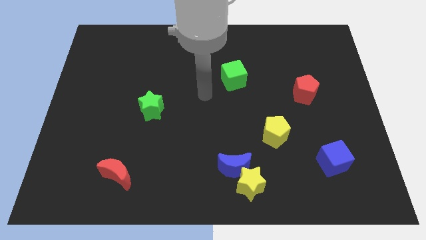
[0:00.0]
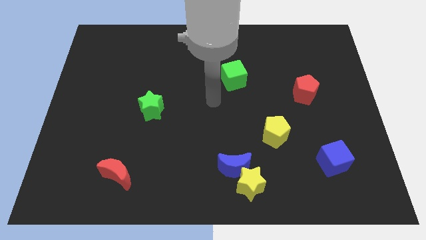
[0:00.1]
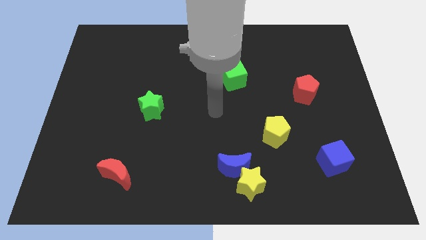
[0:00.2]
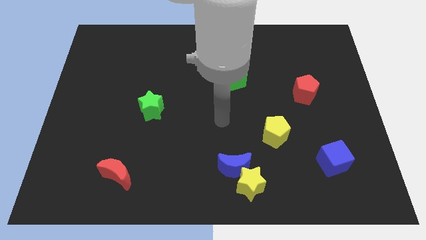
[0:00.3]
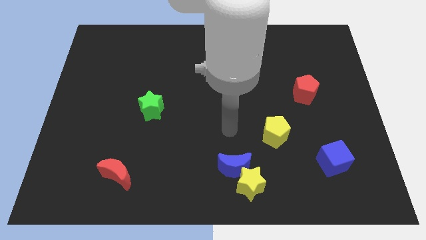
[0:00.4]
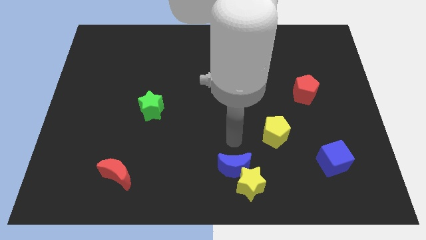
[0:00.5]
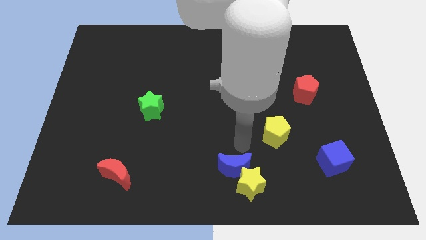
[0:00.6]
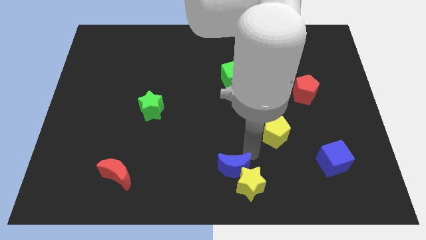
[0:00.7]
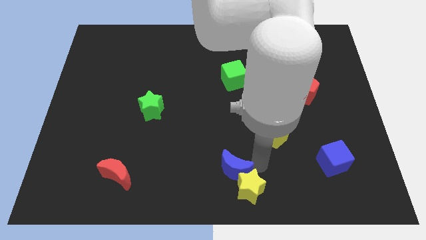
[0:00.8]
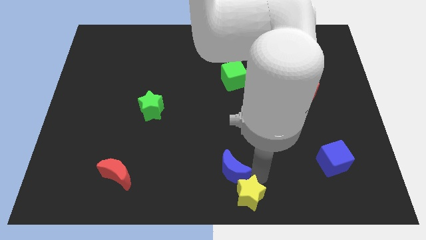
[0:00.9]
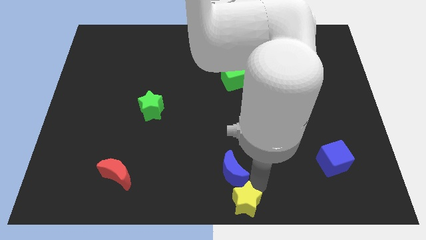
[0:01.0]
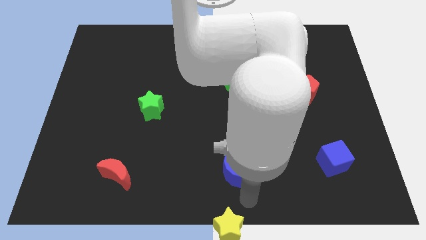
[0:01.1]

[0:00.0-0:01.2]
separate the blue moon from the yellow star

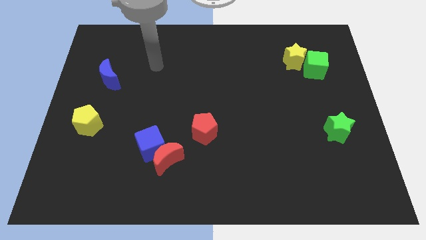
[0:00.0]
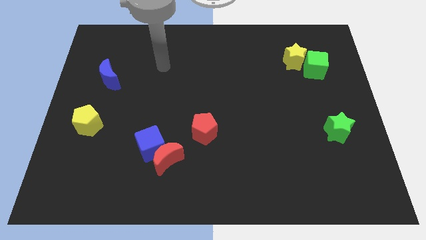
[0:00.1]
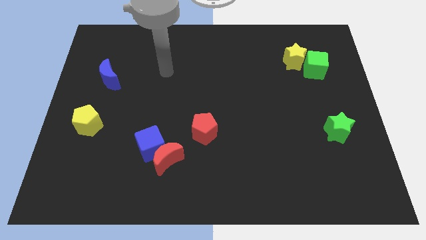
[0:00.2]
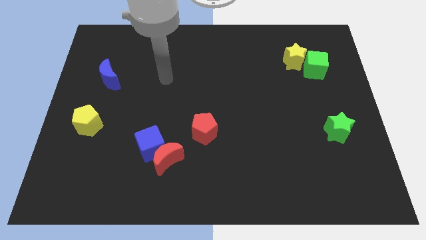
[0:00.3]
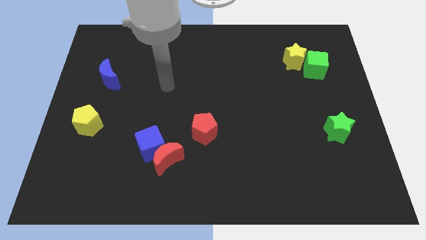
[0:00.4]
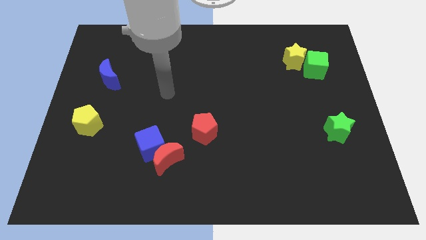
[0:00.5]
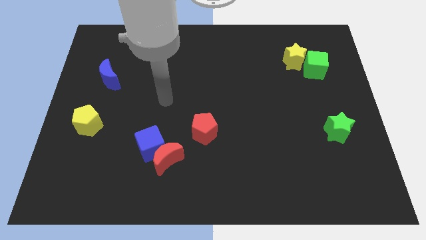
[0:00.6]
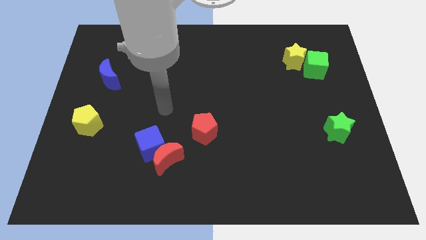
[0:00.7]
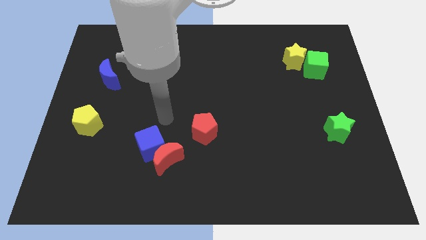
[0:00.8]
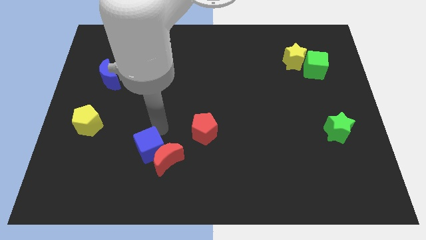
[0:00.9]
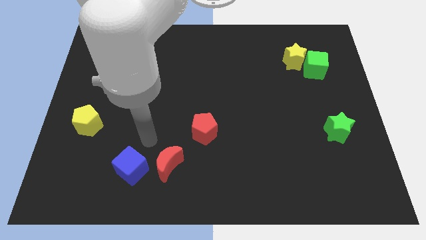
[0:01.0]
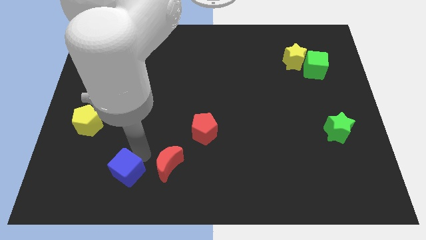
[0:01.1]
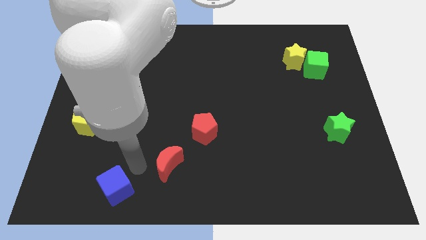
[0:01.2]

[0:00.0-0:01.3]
pull the red moon apart from the blue cube

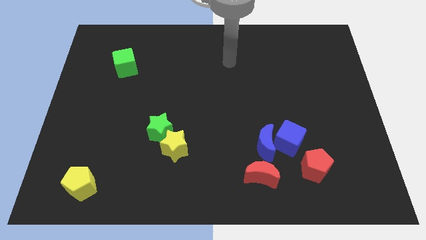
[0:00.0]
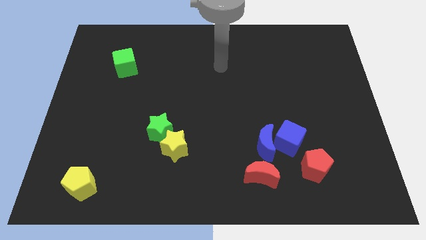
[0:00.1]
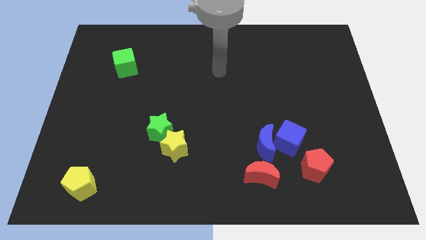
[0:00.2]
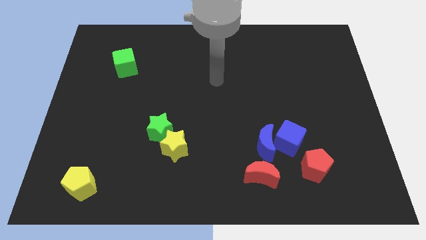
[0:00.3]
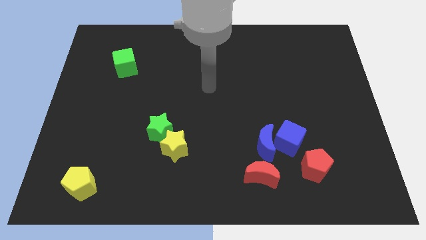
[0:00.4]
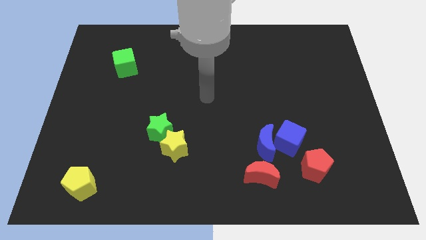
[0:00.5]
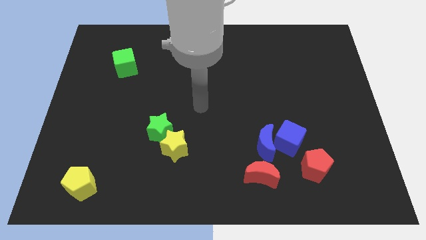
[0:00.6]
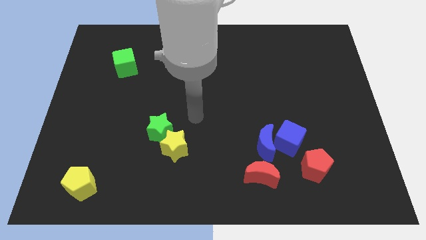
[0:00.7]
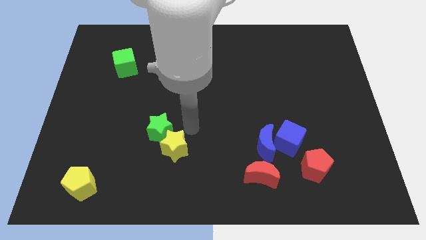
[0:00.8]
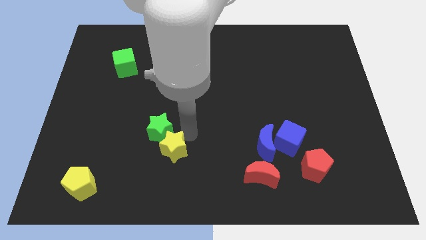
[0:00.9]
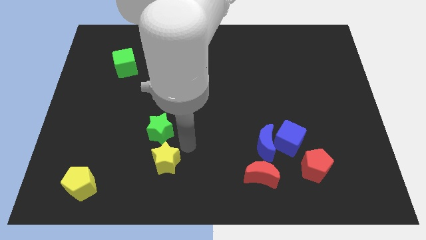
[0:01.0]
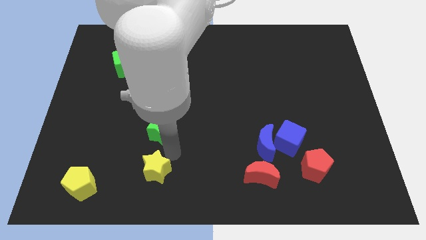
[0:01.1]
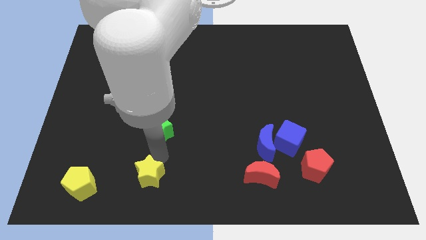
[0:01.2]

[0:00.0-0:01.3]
pull the green star apart from the yellow star

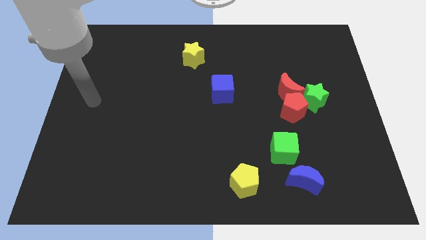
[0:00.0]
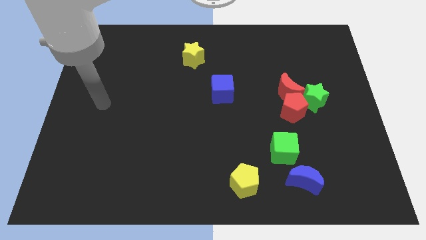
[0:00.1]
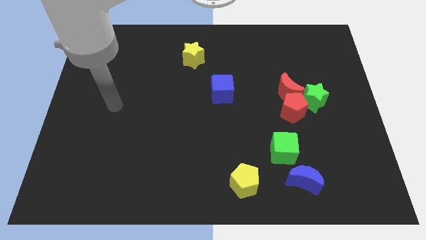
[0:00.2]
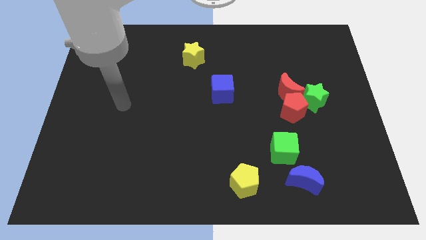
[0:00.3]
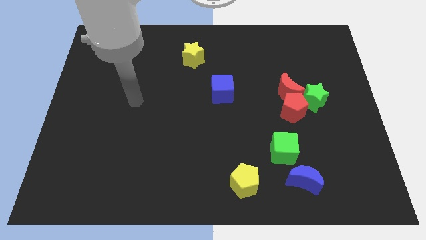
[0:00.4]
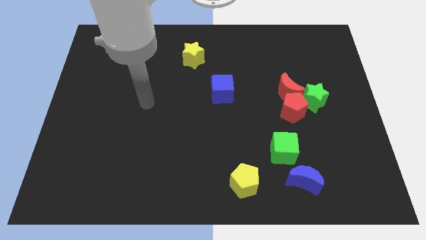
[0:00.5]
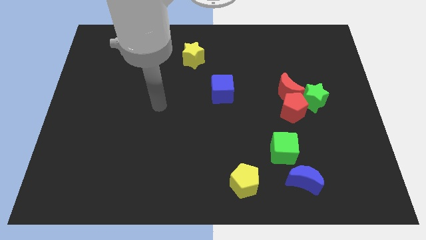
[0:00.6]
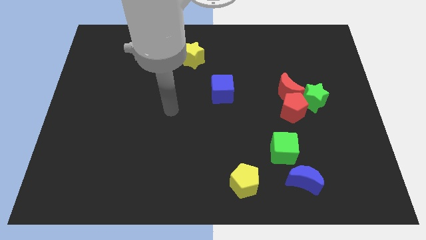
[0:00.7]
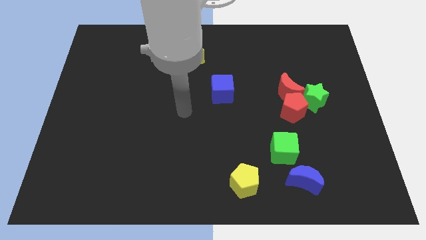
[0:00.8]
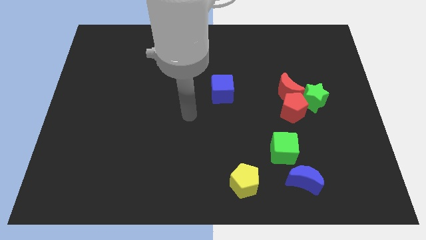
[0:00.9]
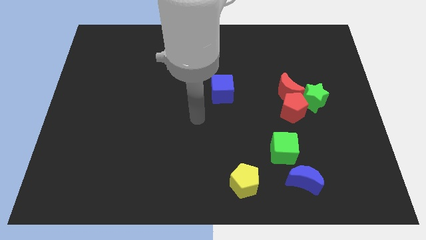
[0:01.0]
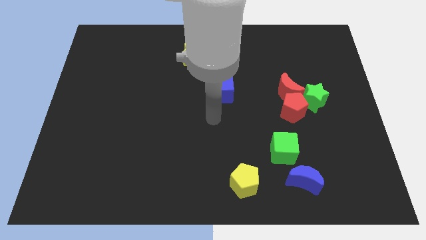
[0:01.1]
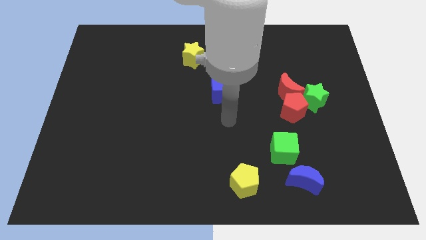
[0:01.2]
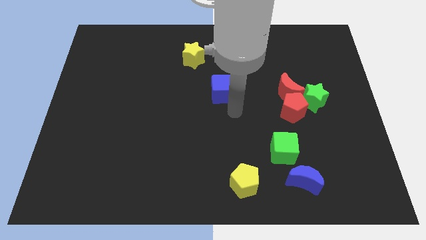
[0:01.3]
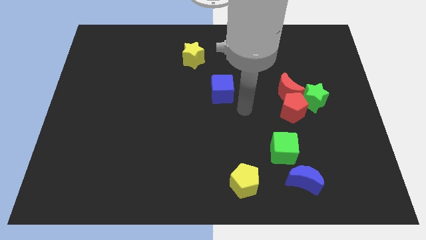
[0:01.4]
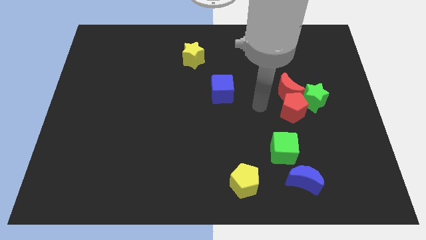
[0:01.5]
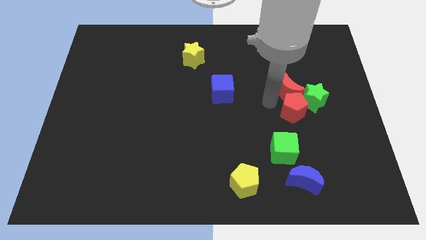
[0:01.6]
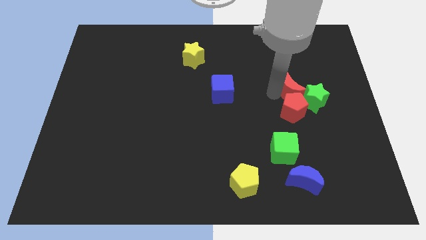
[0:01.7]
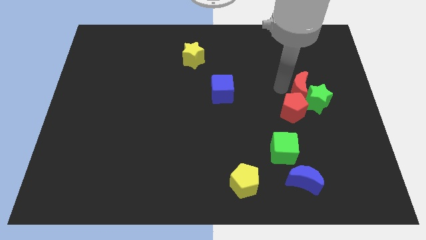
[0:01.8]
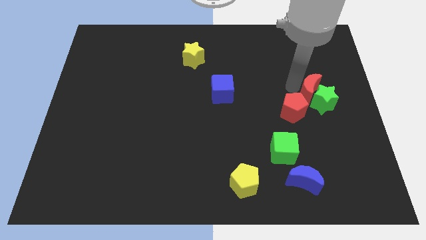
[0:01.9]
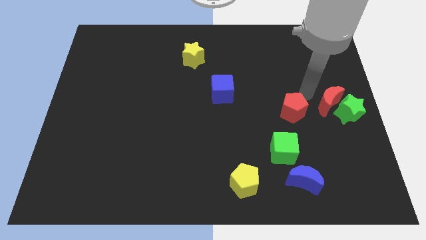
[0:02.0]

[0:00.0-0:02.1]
move the red pentagon away from the red moon and green star

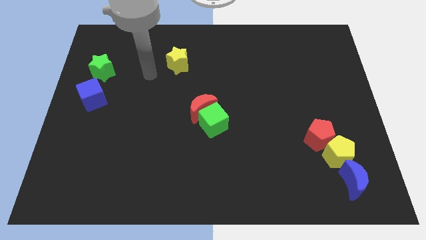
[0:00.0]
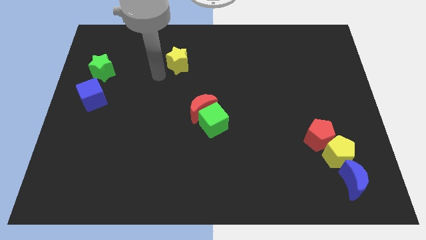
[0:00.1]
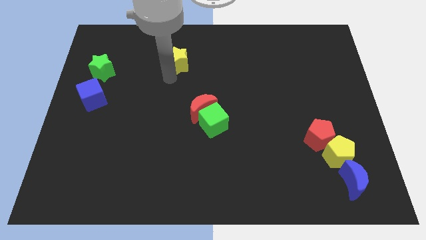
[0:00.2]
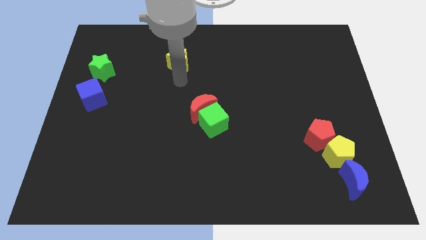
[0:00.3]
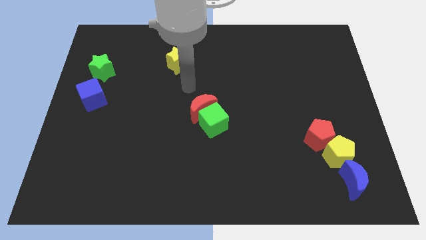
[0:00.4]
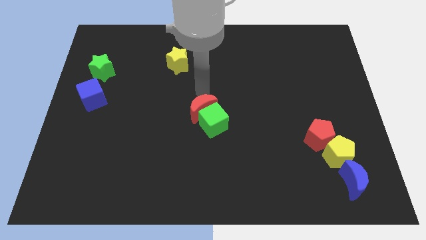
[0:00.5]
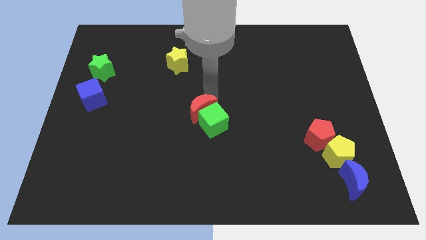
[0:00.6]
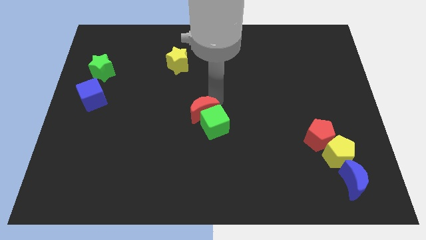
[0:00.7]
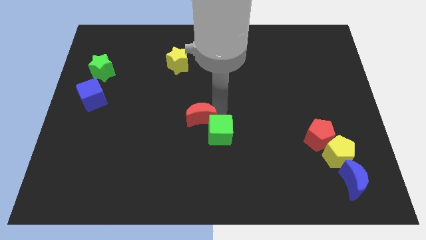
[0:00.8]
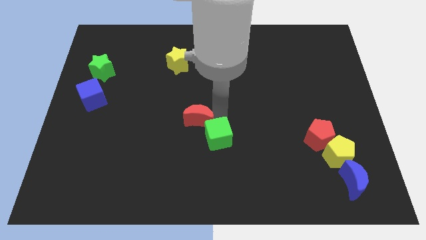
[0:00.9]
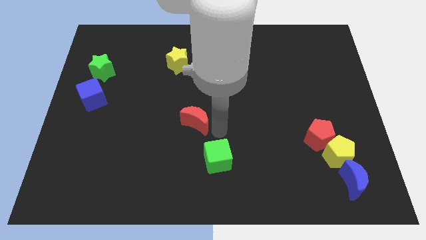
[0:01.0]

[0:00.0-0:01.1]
pull the red moon apart from the green cube

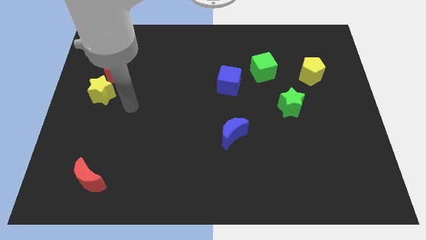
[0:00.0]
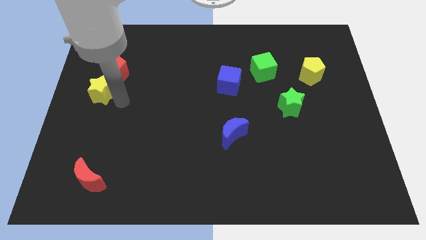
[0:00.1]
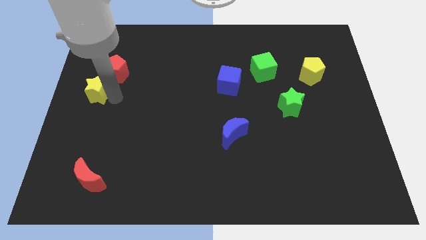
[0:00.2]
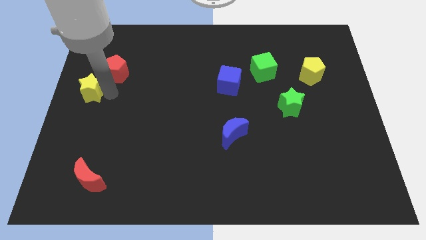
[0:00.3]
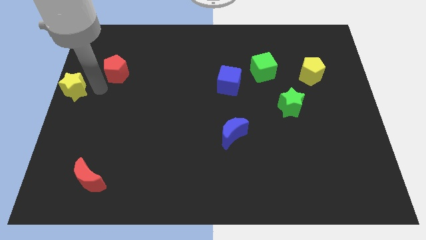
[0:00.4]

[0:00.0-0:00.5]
separate the red pentagon from the yellow star

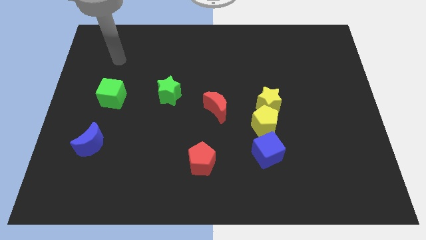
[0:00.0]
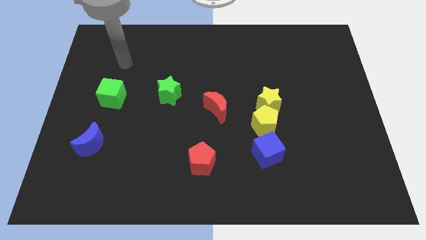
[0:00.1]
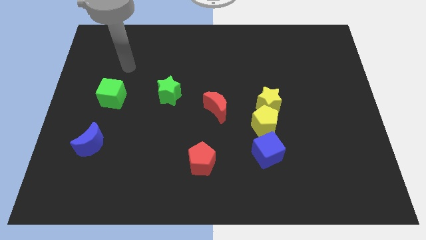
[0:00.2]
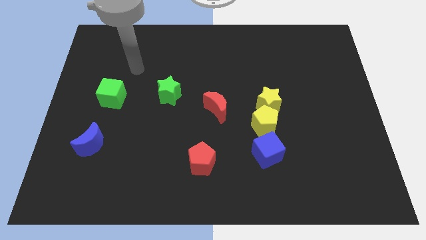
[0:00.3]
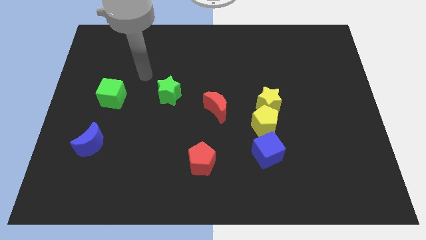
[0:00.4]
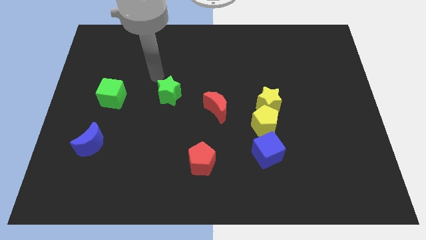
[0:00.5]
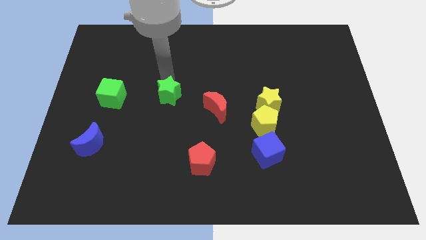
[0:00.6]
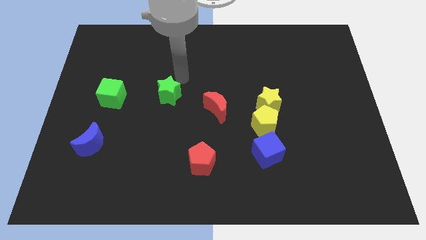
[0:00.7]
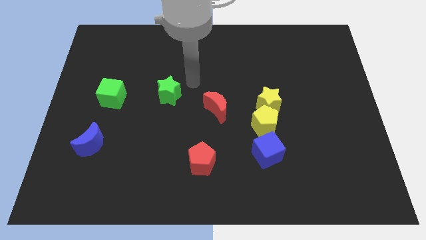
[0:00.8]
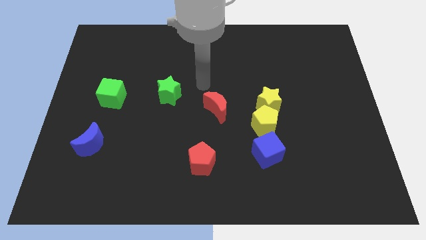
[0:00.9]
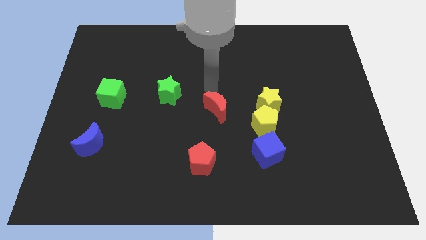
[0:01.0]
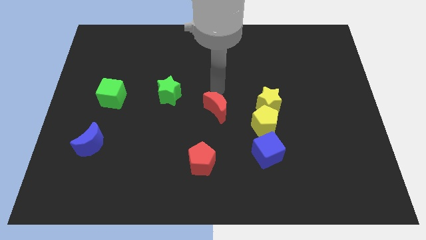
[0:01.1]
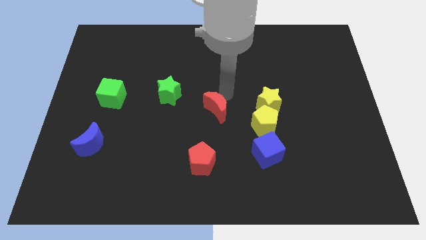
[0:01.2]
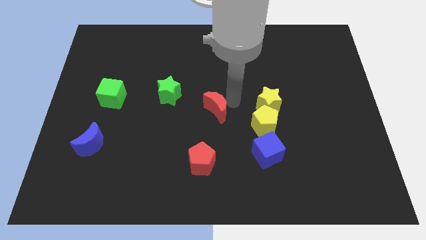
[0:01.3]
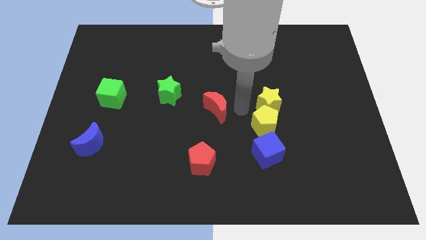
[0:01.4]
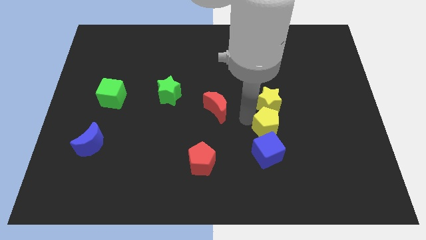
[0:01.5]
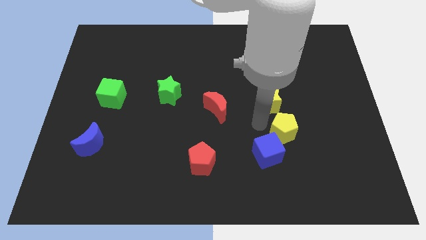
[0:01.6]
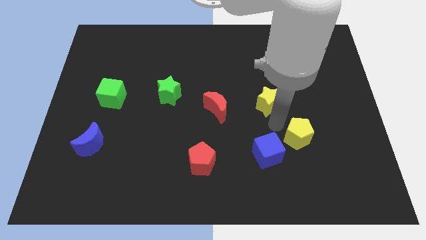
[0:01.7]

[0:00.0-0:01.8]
separate the yellow star from the yellow pentagon
